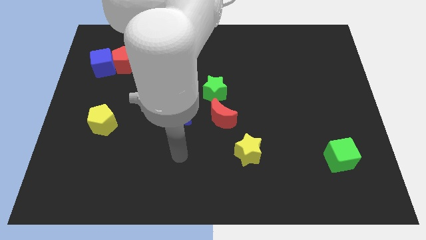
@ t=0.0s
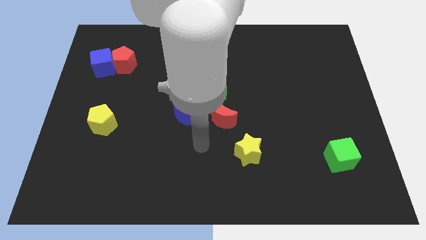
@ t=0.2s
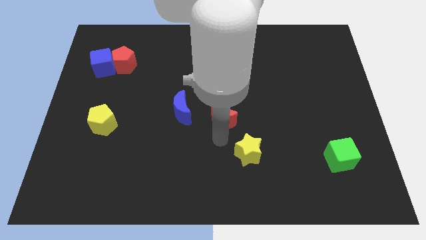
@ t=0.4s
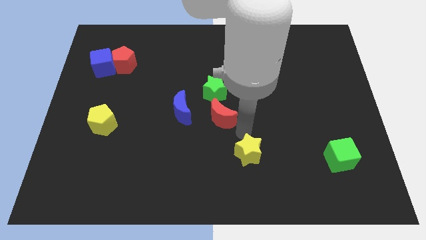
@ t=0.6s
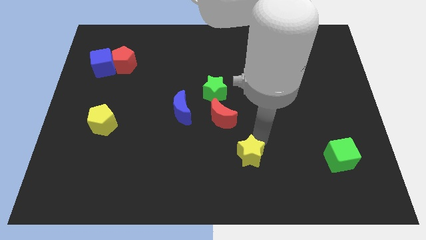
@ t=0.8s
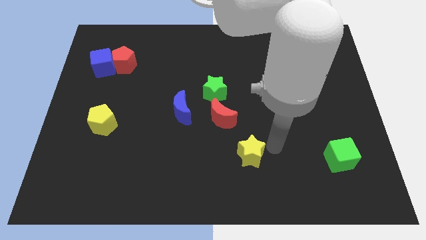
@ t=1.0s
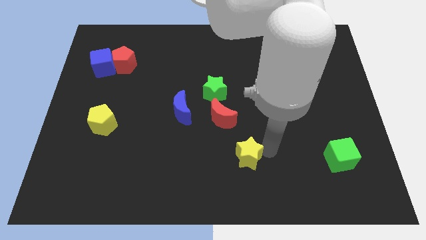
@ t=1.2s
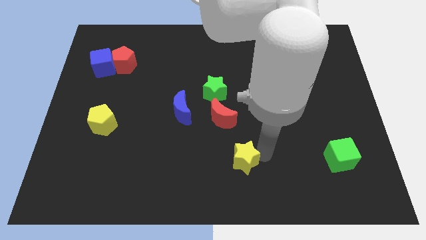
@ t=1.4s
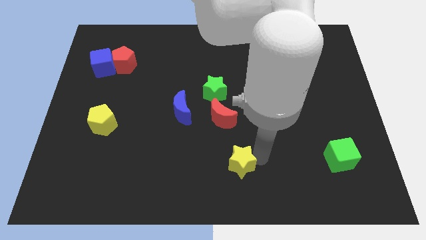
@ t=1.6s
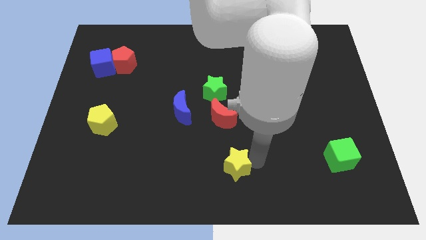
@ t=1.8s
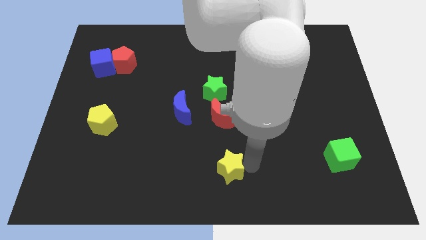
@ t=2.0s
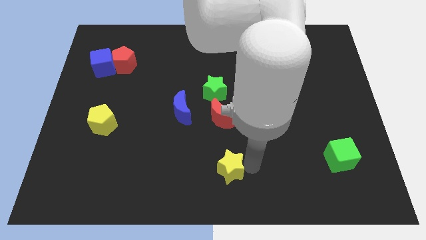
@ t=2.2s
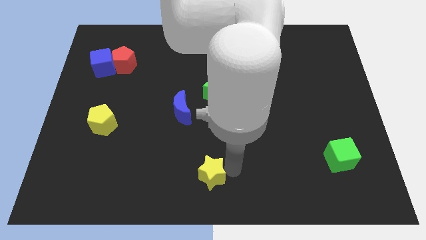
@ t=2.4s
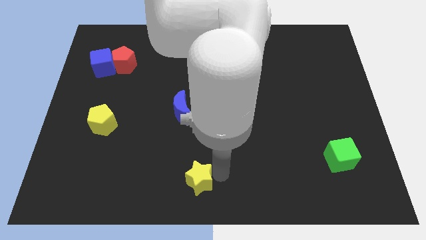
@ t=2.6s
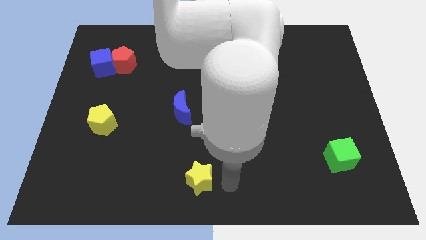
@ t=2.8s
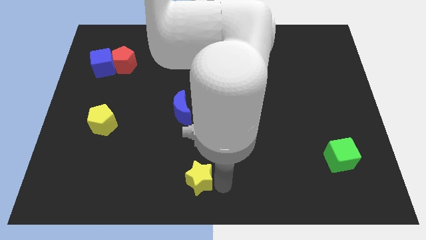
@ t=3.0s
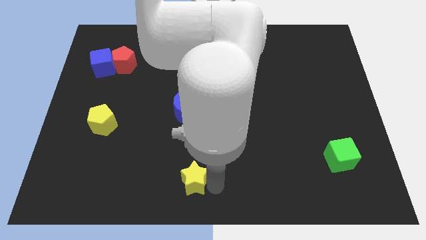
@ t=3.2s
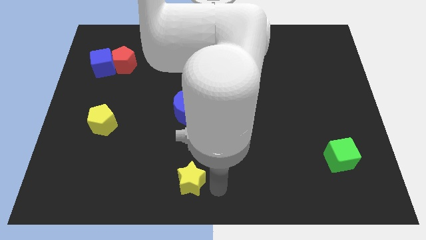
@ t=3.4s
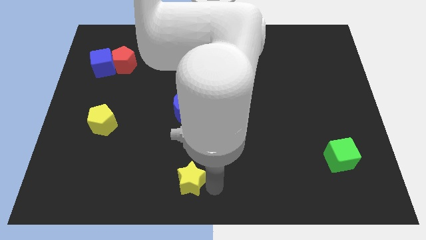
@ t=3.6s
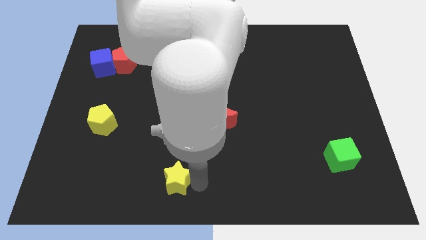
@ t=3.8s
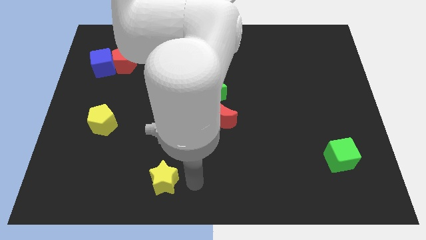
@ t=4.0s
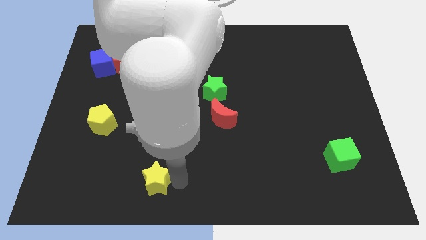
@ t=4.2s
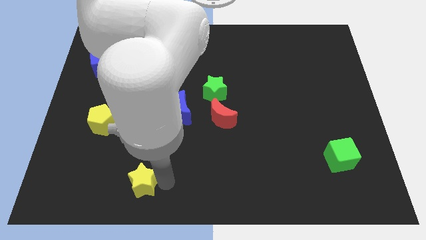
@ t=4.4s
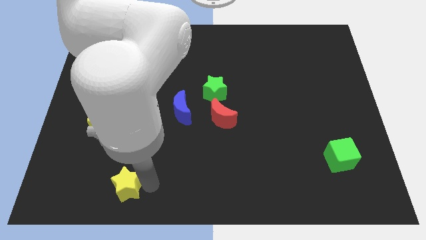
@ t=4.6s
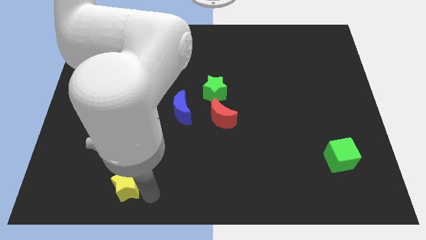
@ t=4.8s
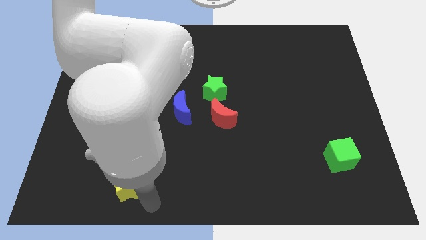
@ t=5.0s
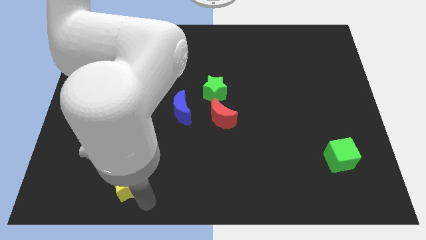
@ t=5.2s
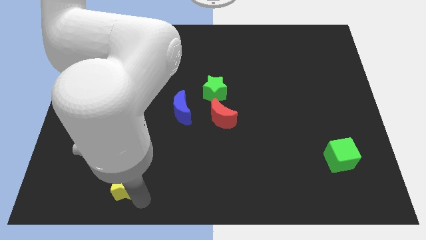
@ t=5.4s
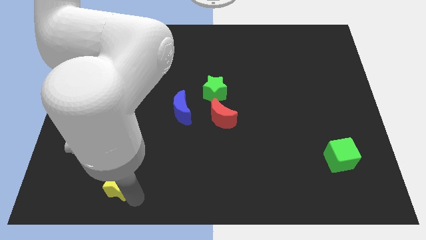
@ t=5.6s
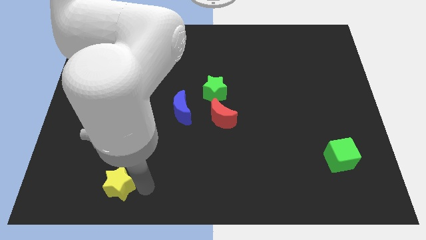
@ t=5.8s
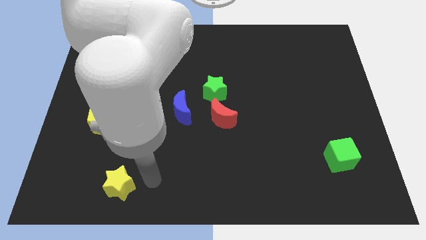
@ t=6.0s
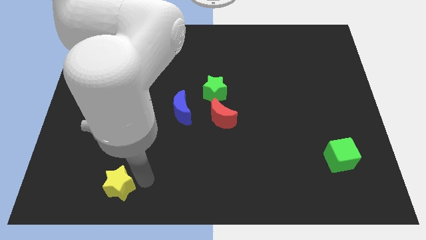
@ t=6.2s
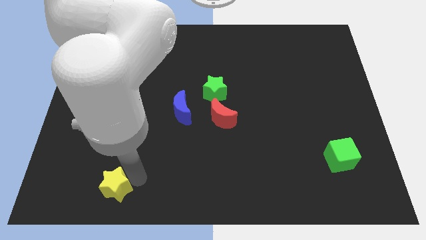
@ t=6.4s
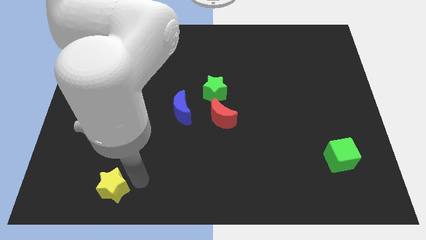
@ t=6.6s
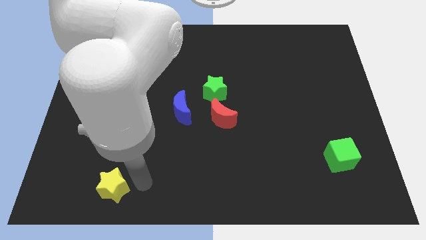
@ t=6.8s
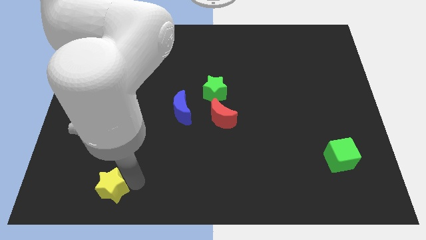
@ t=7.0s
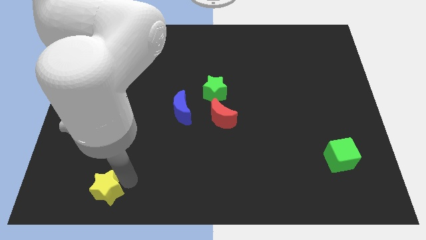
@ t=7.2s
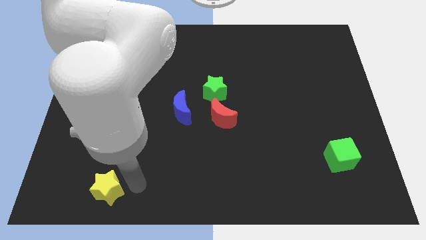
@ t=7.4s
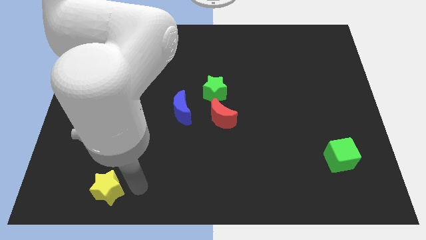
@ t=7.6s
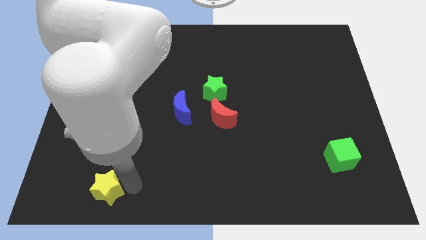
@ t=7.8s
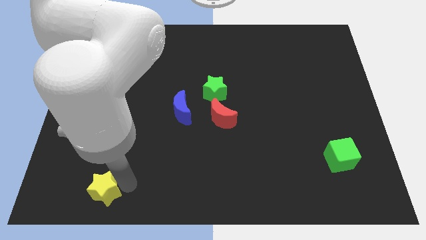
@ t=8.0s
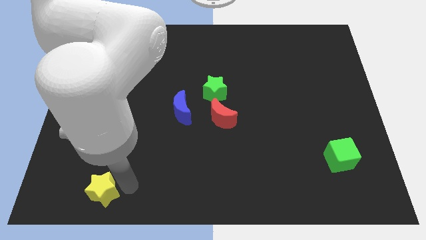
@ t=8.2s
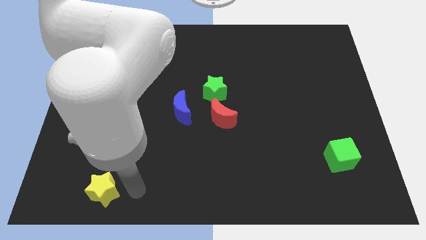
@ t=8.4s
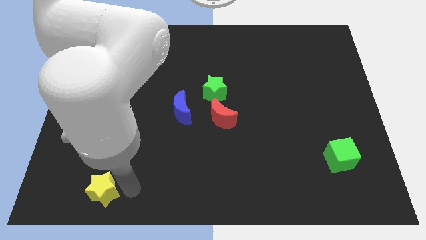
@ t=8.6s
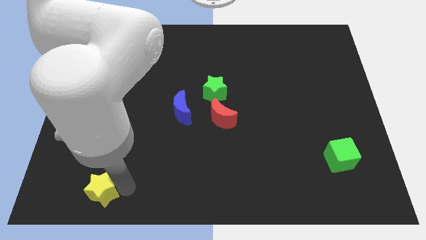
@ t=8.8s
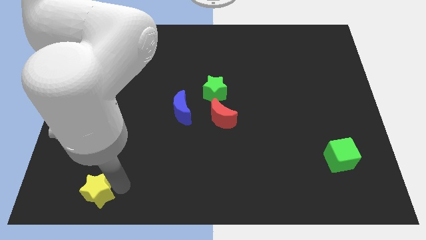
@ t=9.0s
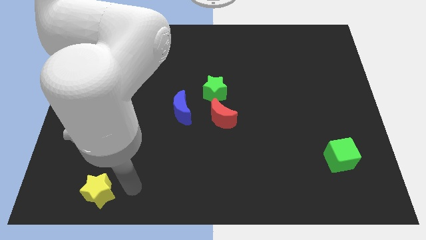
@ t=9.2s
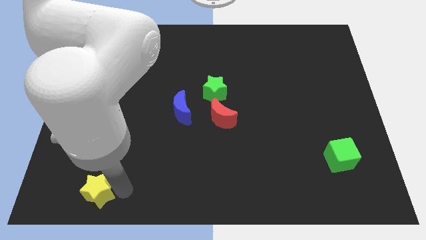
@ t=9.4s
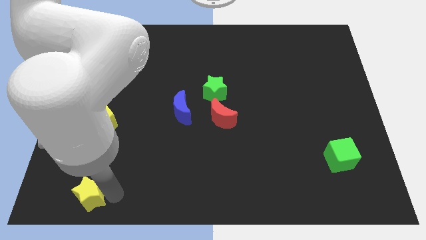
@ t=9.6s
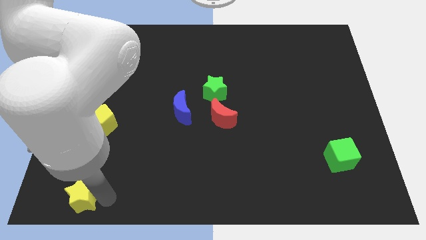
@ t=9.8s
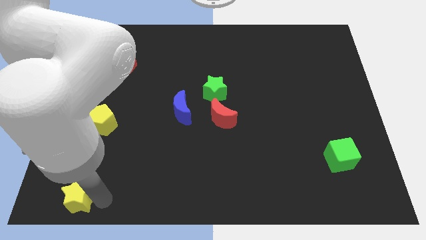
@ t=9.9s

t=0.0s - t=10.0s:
move the yellow star to the bottom left corner

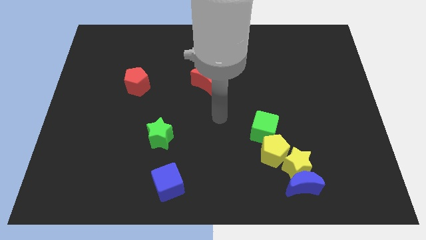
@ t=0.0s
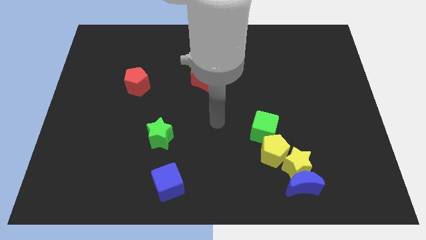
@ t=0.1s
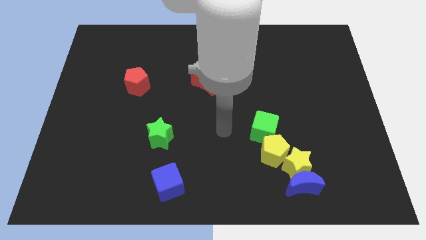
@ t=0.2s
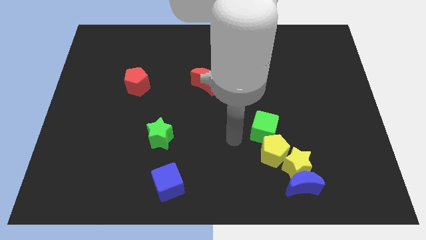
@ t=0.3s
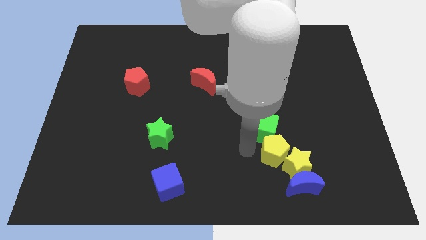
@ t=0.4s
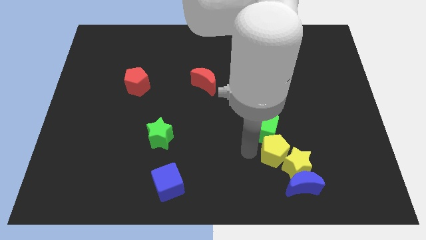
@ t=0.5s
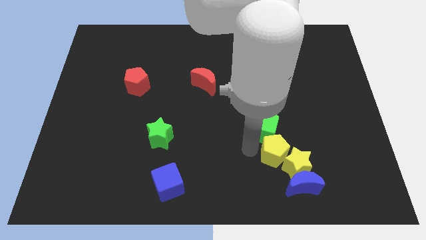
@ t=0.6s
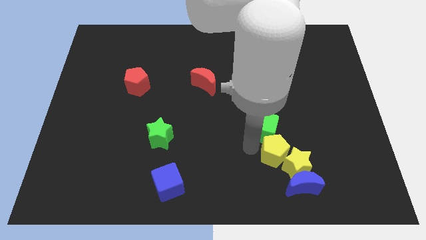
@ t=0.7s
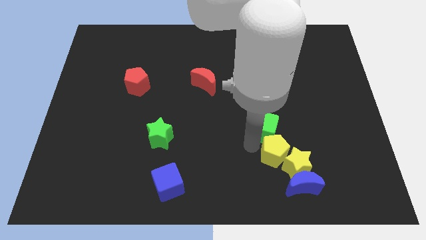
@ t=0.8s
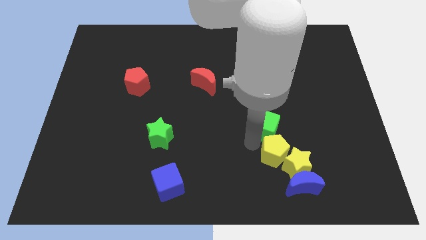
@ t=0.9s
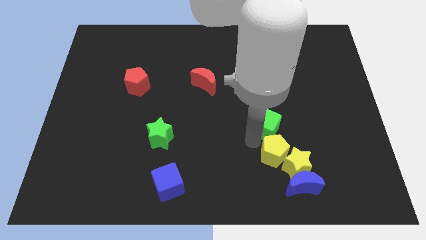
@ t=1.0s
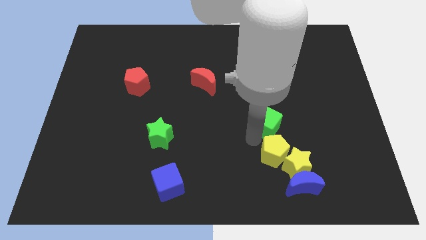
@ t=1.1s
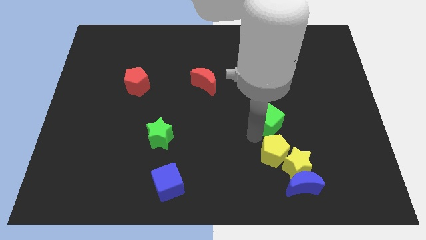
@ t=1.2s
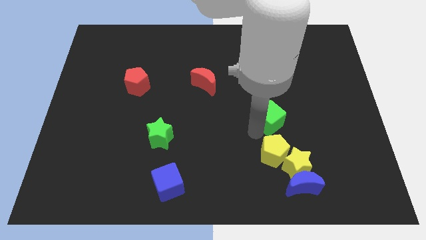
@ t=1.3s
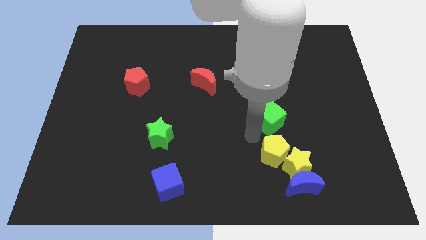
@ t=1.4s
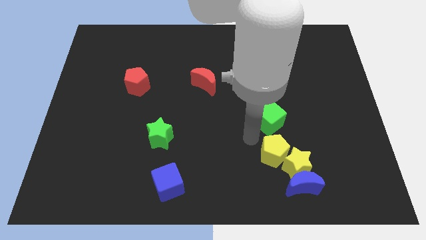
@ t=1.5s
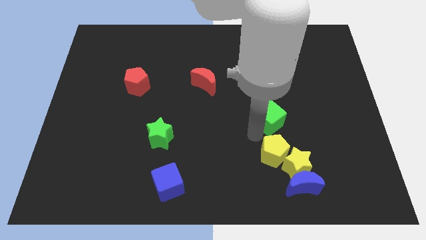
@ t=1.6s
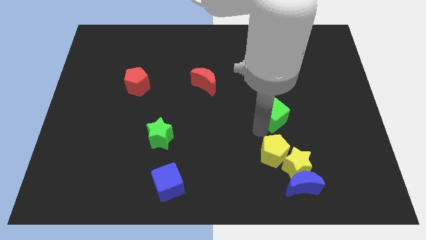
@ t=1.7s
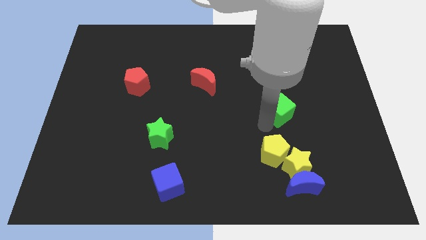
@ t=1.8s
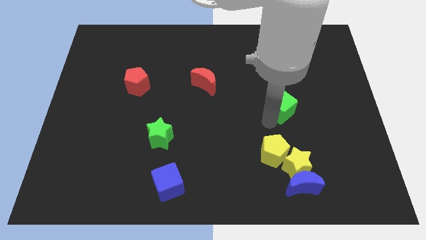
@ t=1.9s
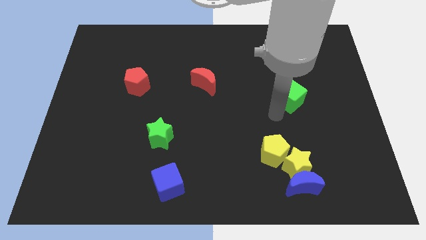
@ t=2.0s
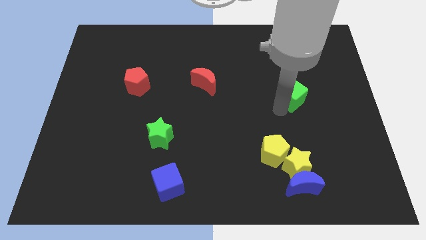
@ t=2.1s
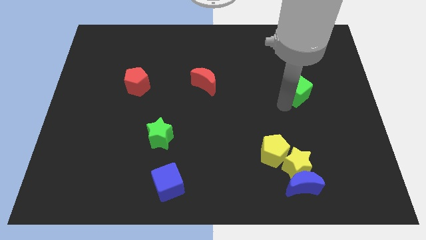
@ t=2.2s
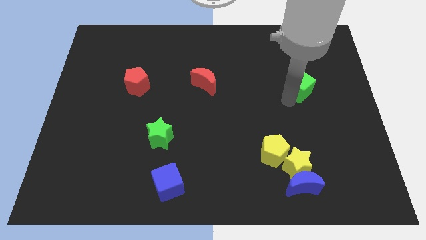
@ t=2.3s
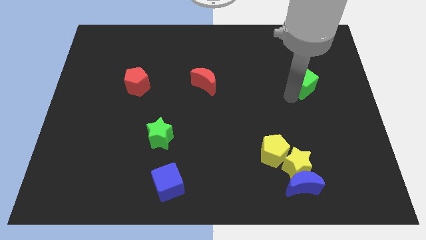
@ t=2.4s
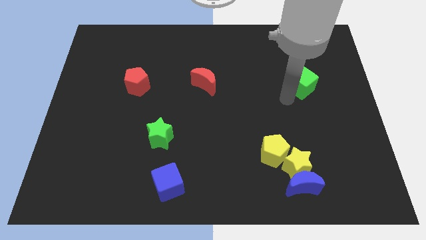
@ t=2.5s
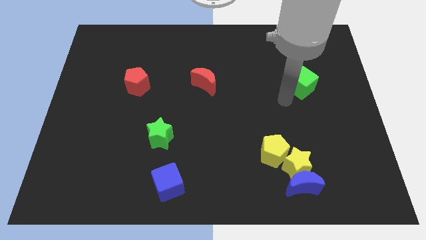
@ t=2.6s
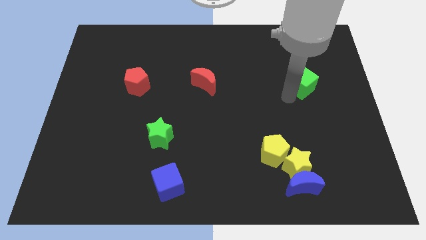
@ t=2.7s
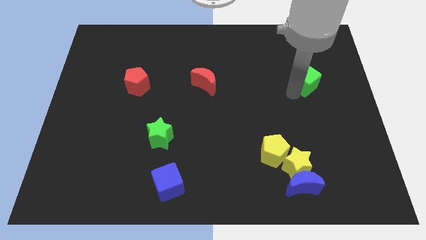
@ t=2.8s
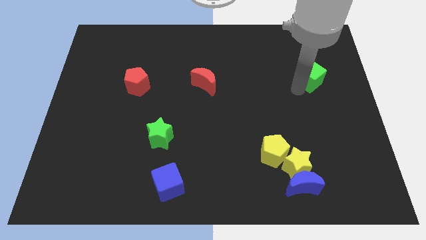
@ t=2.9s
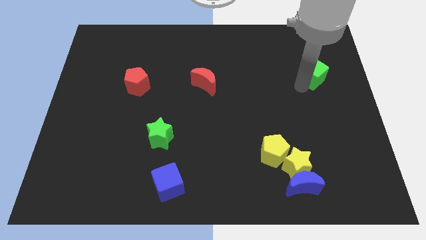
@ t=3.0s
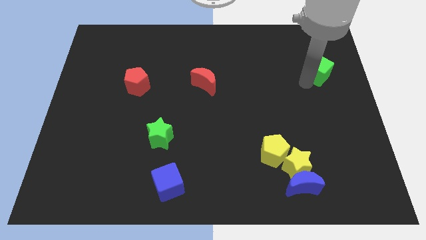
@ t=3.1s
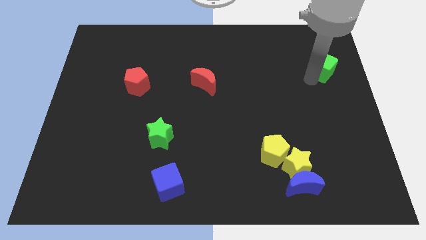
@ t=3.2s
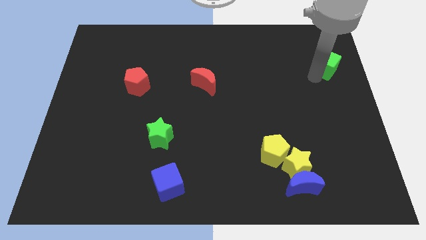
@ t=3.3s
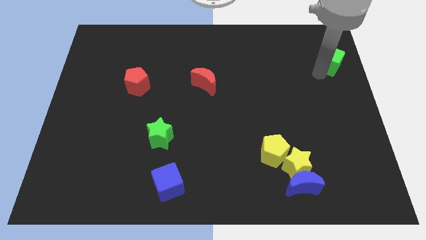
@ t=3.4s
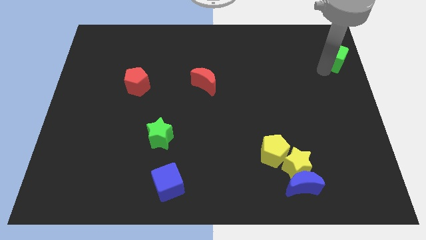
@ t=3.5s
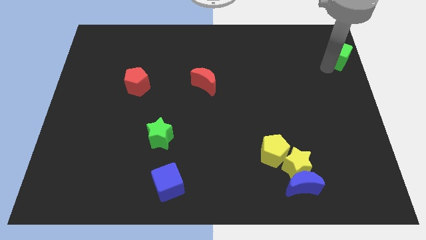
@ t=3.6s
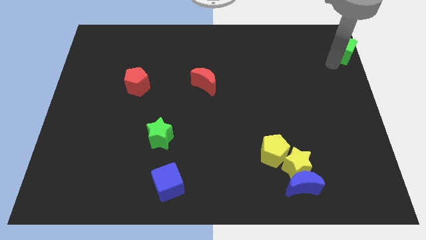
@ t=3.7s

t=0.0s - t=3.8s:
slide the green cube to the top right corner
